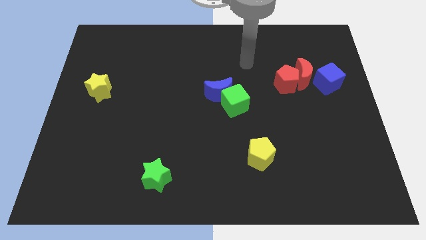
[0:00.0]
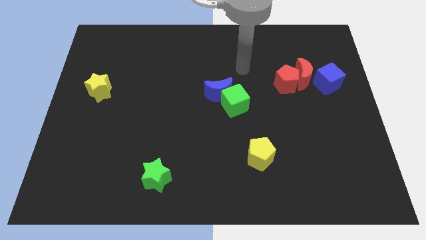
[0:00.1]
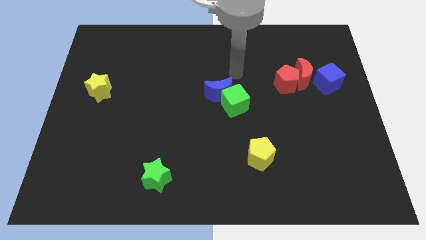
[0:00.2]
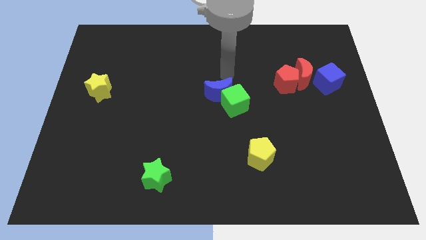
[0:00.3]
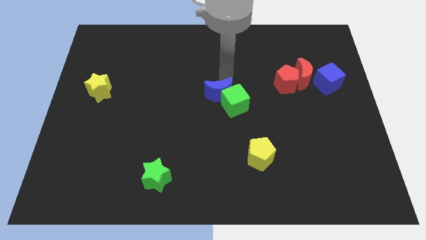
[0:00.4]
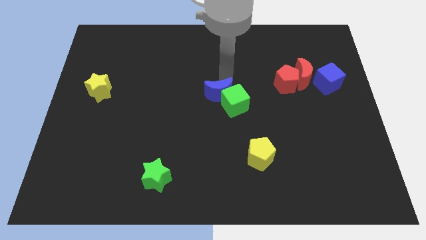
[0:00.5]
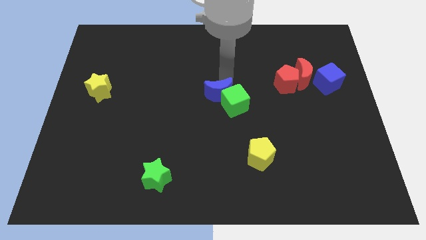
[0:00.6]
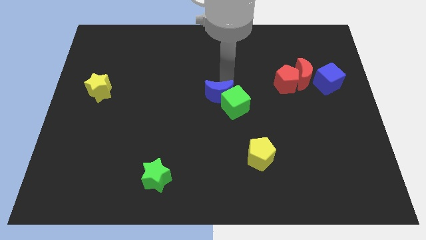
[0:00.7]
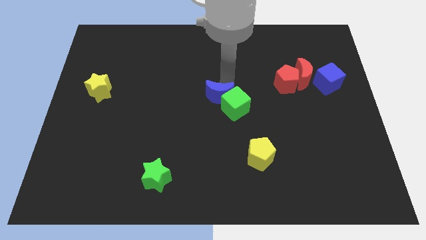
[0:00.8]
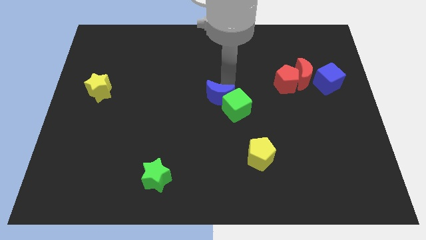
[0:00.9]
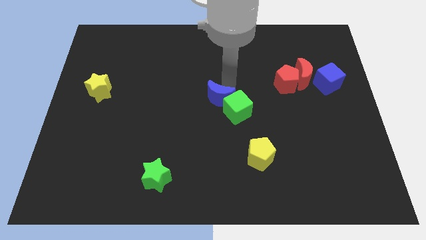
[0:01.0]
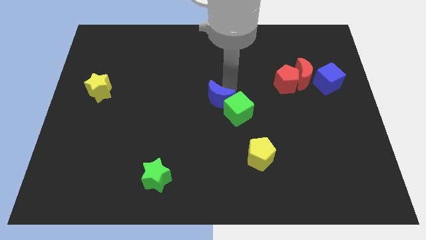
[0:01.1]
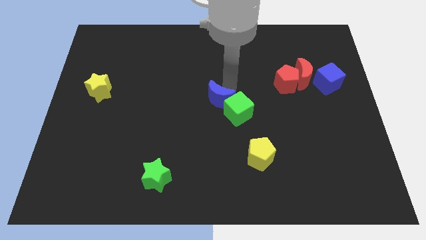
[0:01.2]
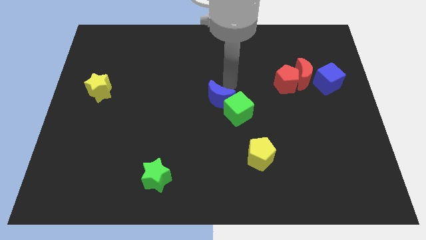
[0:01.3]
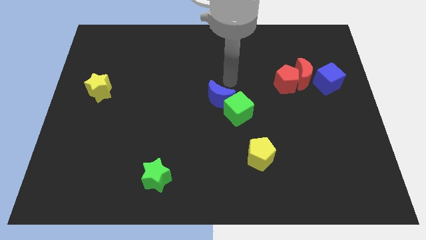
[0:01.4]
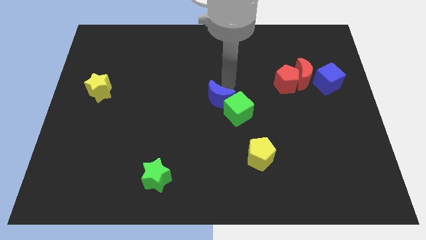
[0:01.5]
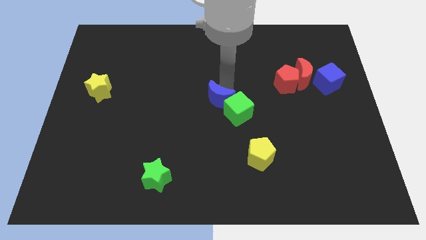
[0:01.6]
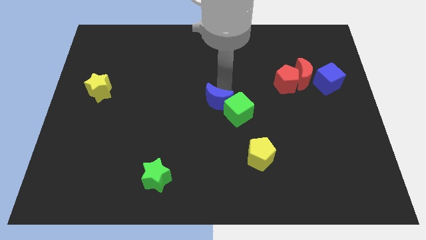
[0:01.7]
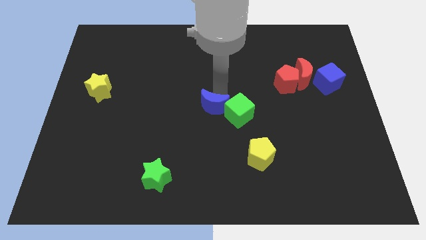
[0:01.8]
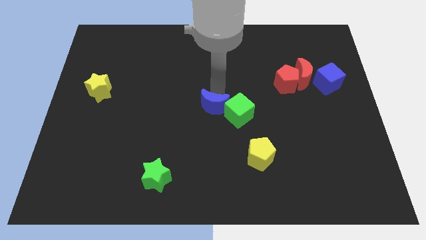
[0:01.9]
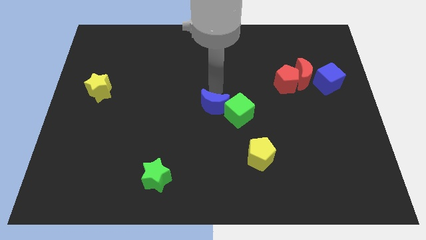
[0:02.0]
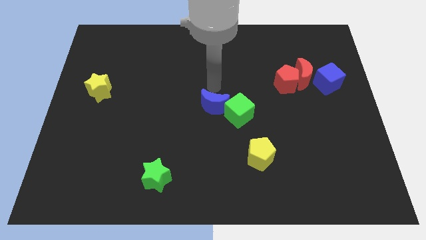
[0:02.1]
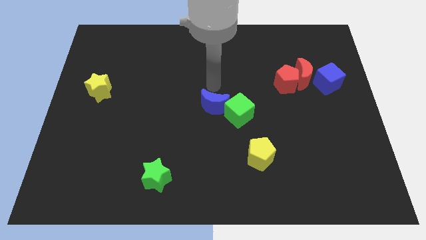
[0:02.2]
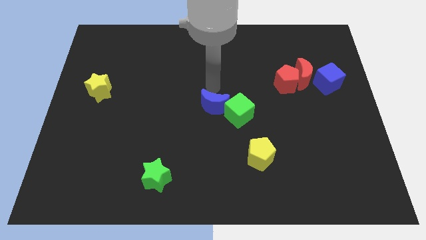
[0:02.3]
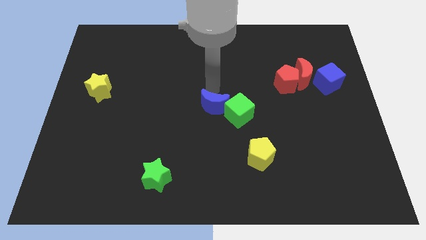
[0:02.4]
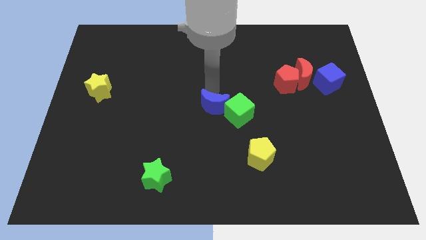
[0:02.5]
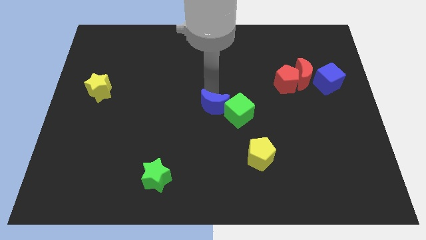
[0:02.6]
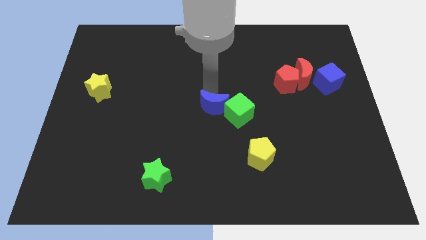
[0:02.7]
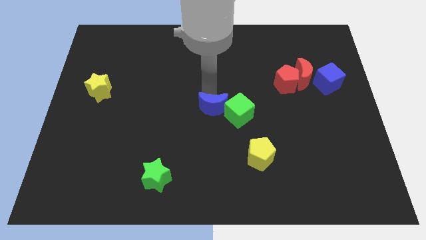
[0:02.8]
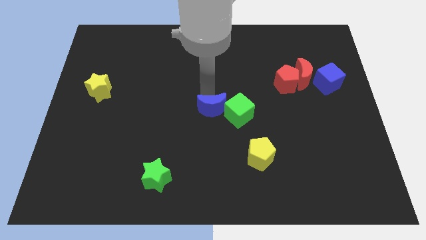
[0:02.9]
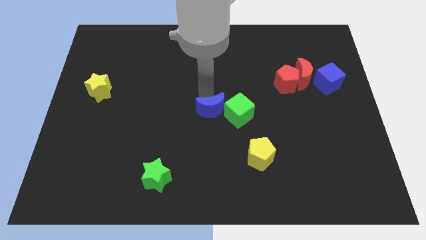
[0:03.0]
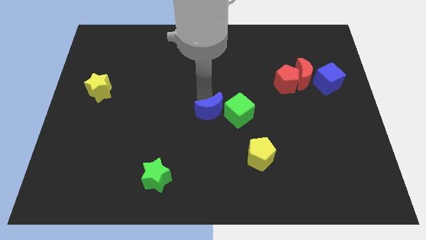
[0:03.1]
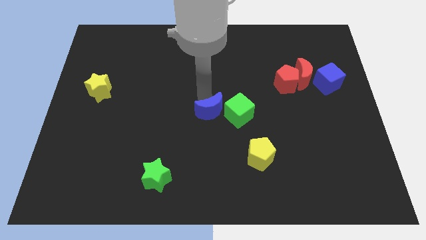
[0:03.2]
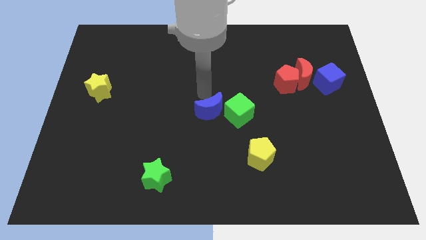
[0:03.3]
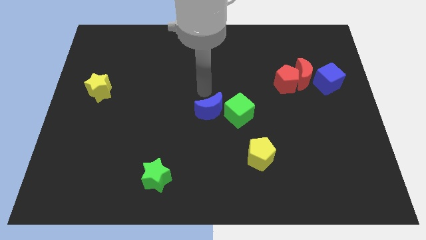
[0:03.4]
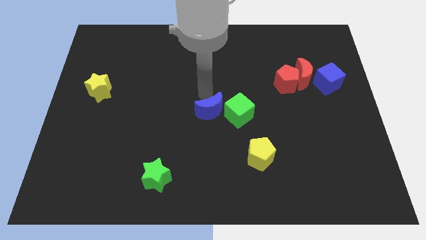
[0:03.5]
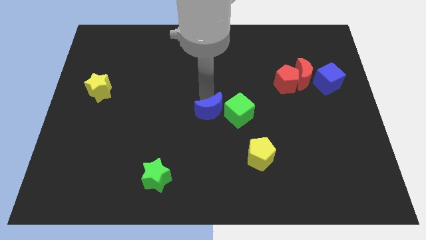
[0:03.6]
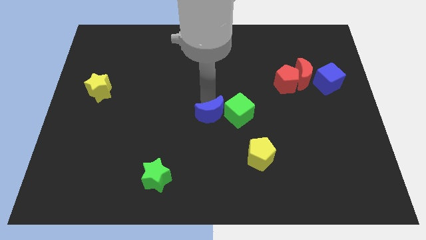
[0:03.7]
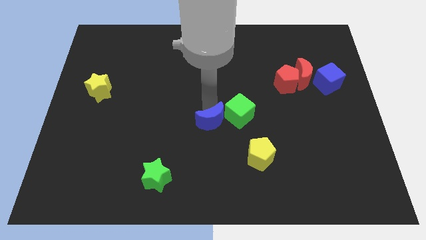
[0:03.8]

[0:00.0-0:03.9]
push the blue moon a bit down

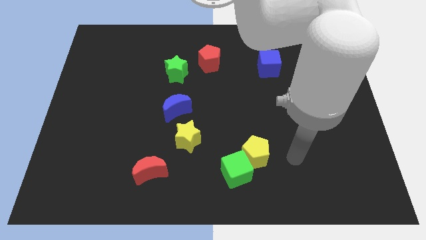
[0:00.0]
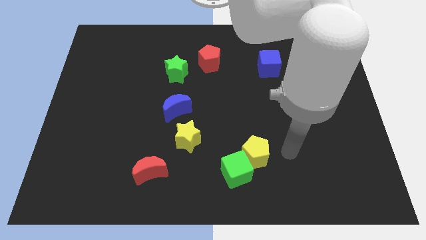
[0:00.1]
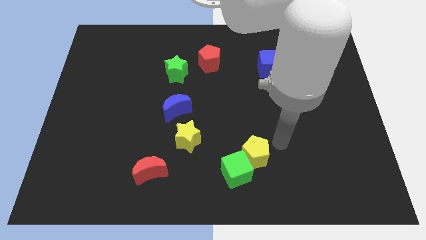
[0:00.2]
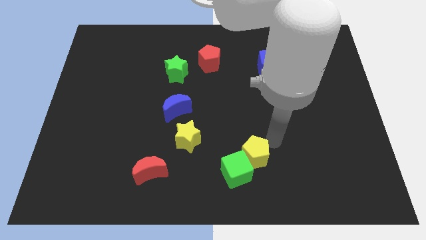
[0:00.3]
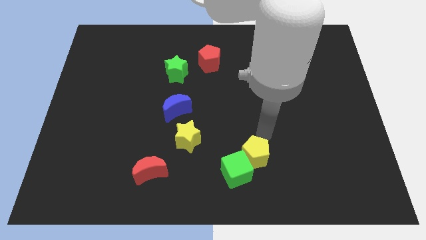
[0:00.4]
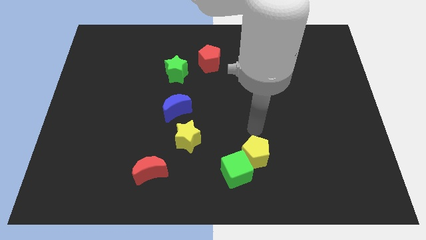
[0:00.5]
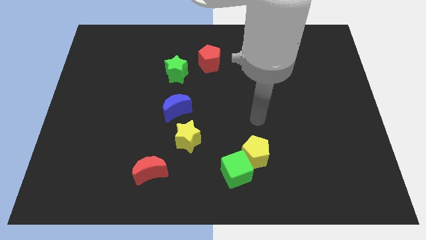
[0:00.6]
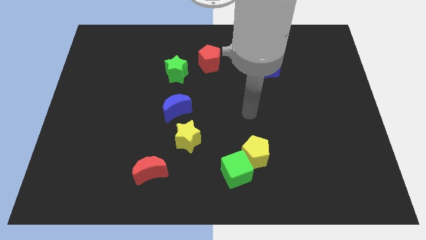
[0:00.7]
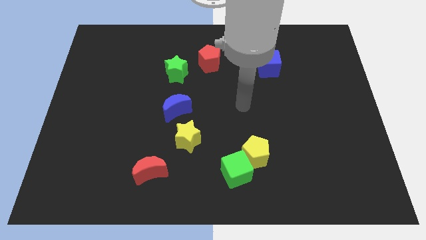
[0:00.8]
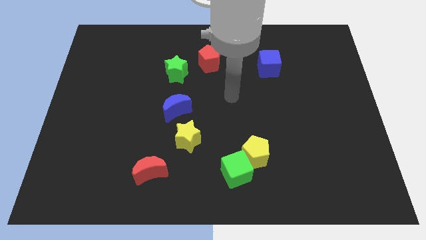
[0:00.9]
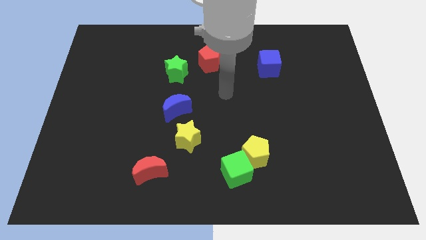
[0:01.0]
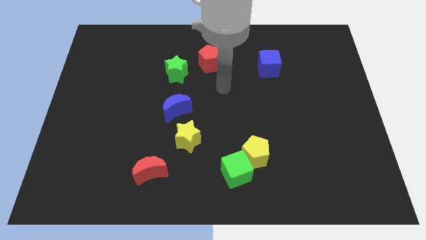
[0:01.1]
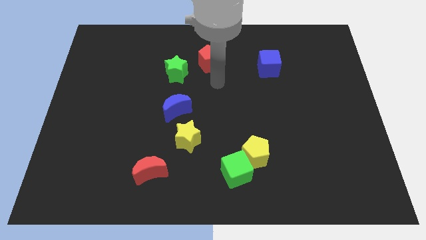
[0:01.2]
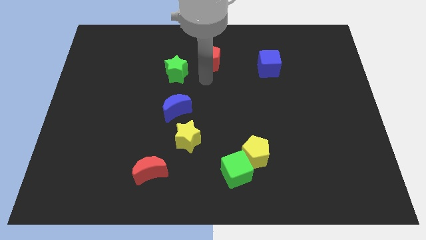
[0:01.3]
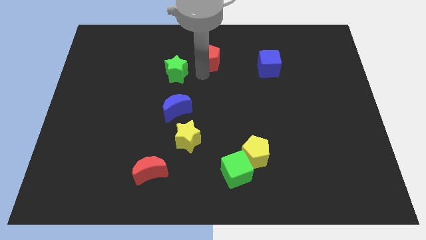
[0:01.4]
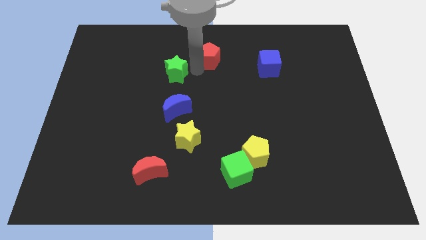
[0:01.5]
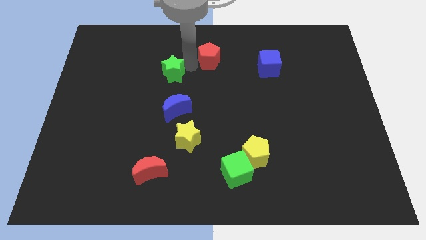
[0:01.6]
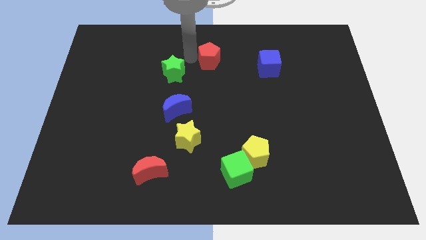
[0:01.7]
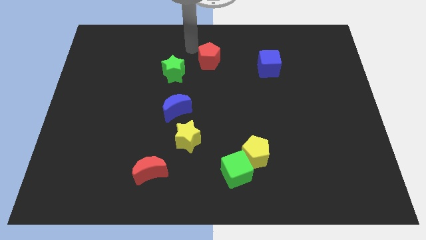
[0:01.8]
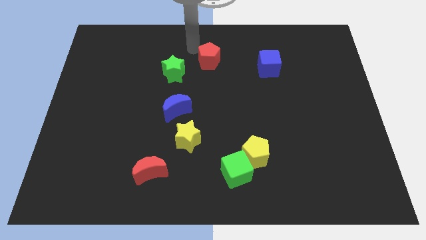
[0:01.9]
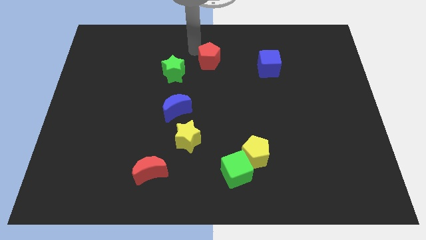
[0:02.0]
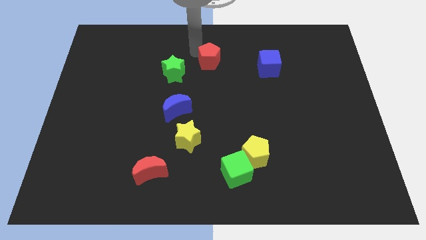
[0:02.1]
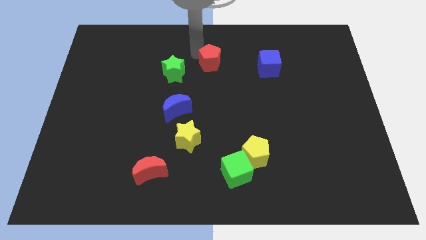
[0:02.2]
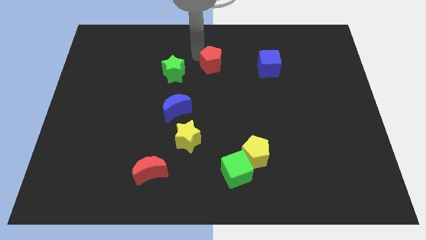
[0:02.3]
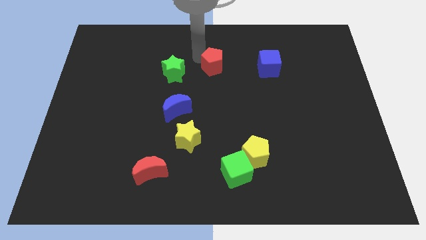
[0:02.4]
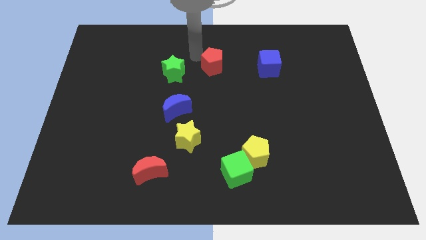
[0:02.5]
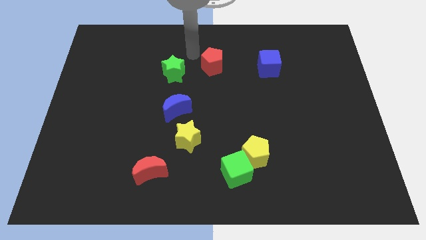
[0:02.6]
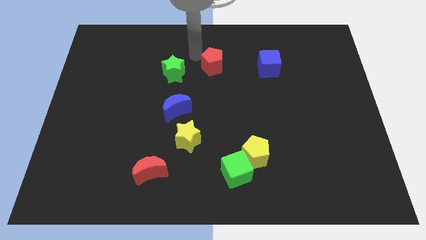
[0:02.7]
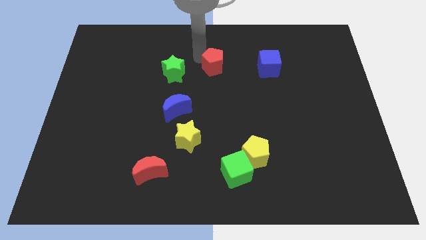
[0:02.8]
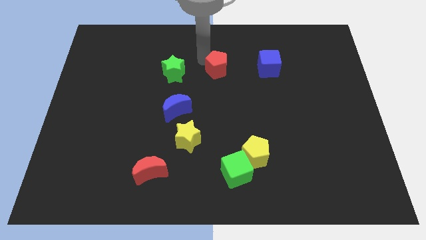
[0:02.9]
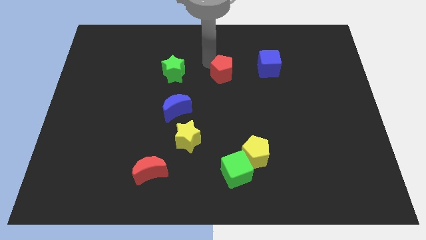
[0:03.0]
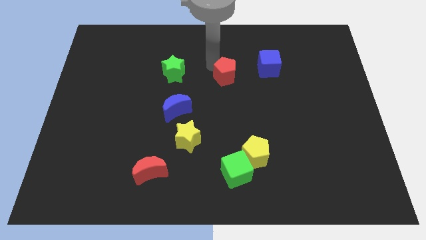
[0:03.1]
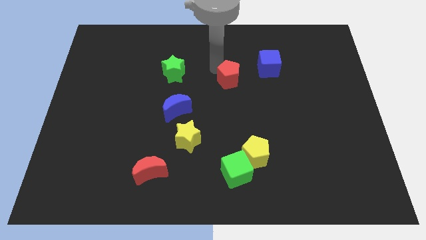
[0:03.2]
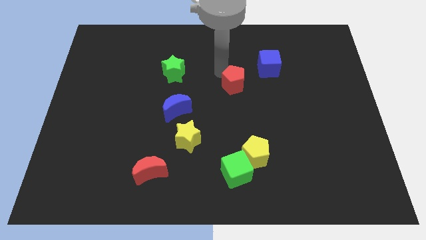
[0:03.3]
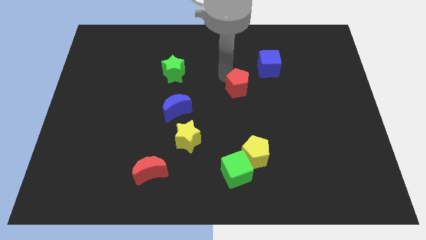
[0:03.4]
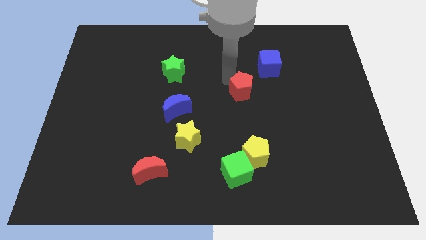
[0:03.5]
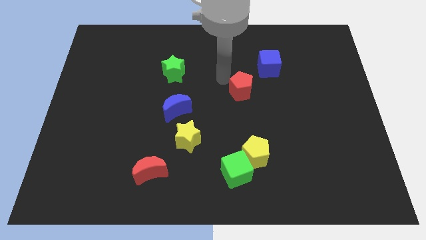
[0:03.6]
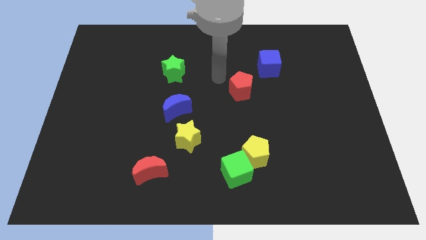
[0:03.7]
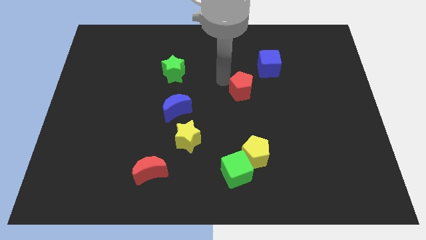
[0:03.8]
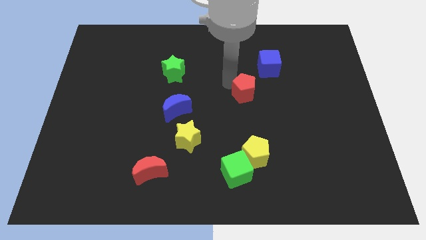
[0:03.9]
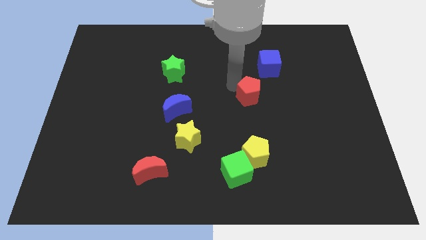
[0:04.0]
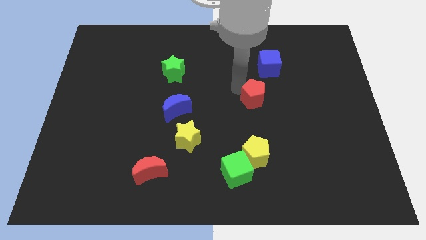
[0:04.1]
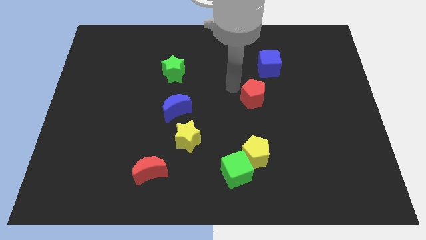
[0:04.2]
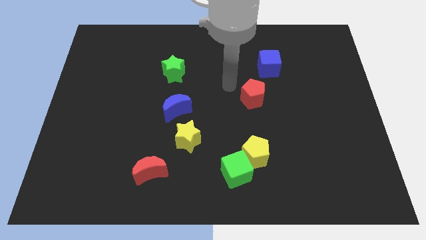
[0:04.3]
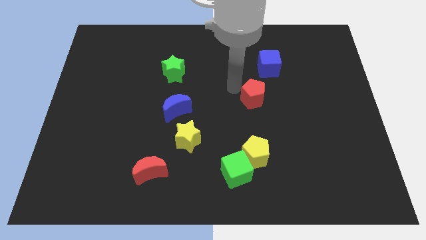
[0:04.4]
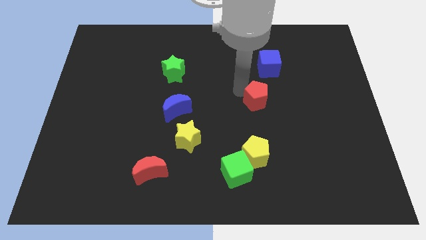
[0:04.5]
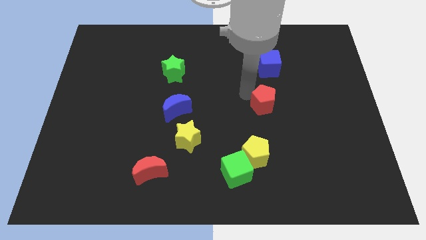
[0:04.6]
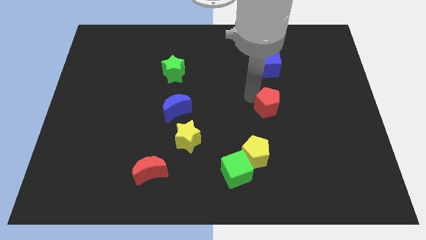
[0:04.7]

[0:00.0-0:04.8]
slide the red pentagon diagonally down and right
